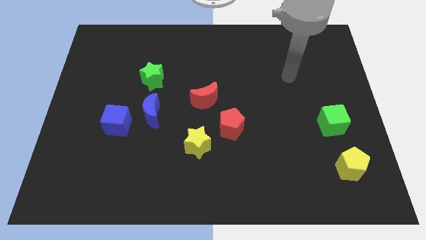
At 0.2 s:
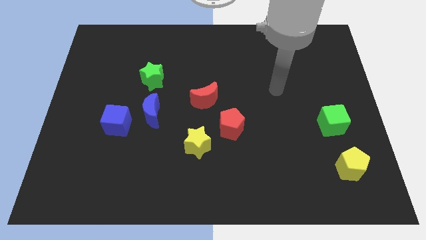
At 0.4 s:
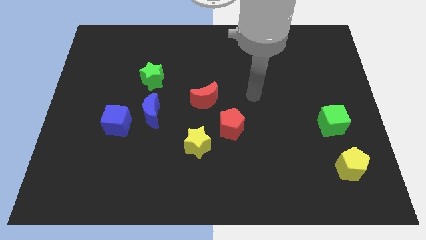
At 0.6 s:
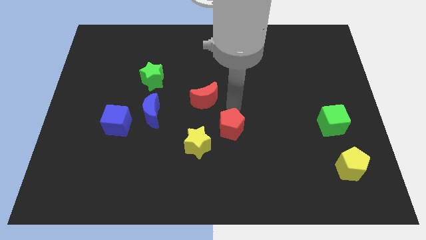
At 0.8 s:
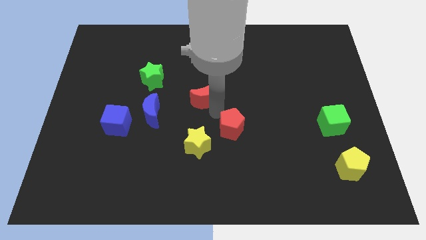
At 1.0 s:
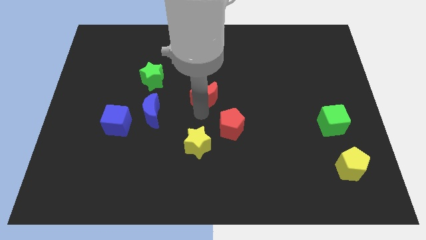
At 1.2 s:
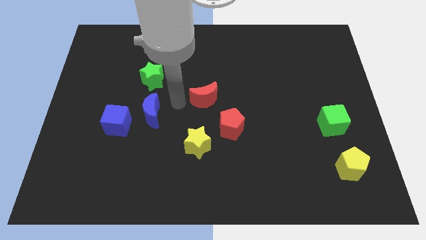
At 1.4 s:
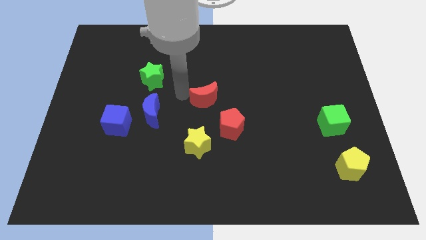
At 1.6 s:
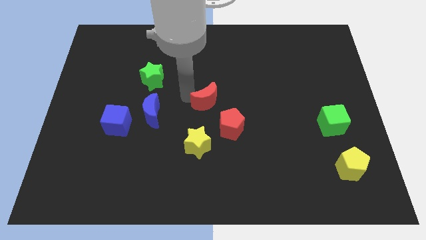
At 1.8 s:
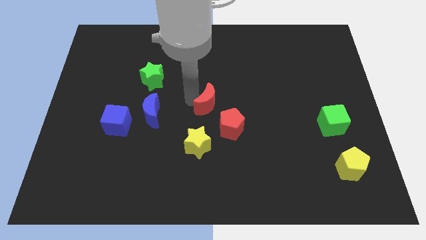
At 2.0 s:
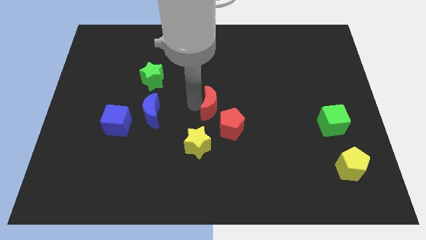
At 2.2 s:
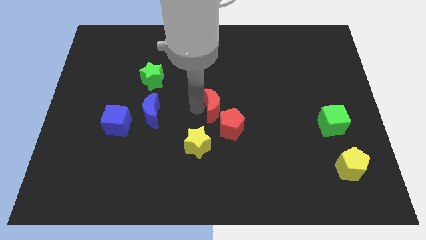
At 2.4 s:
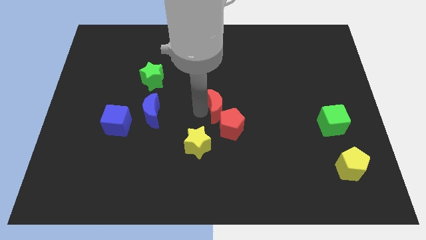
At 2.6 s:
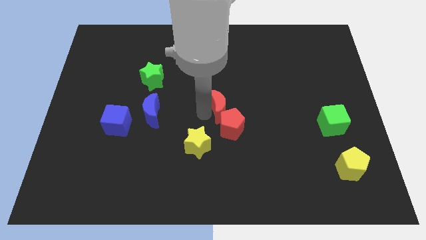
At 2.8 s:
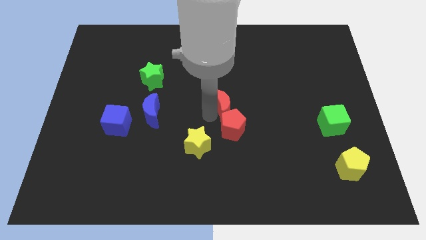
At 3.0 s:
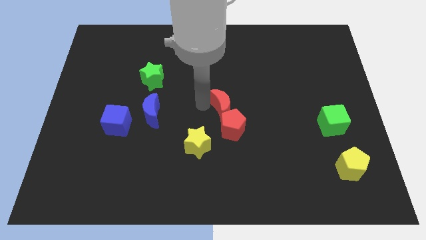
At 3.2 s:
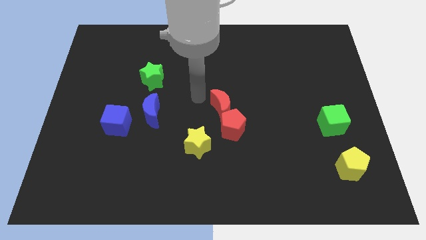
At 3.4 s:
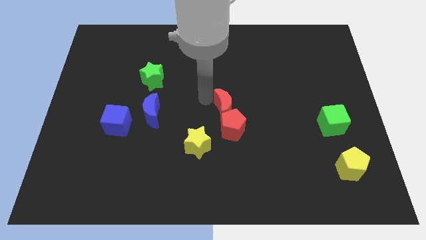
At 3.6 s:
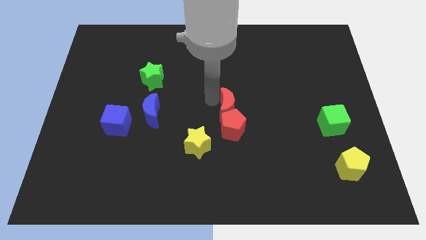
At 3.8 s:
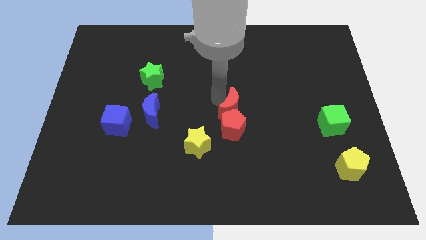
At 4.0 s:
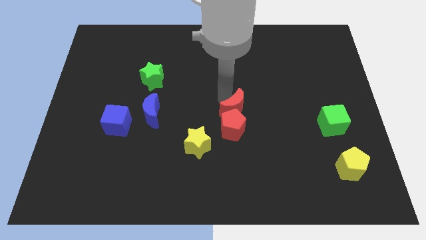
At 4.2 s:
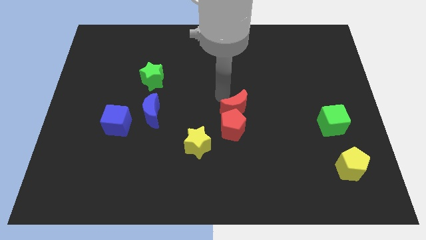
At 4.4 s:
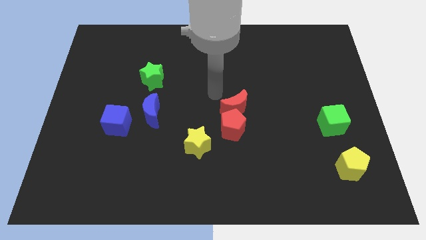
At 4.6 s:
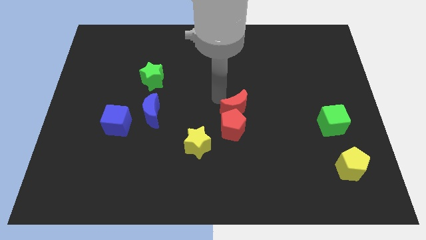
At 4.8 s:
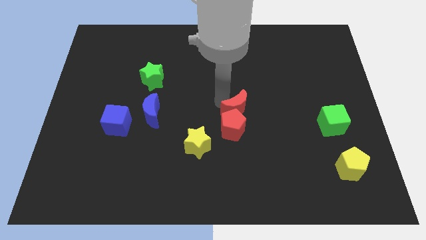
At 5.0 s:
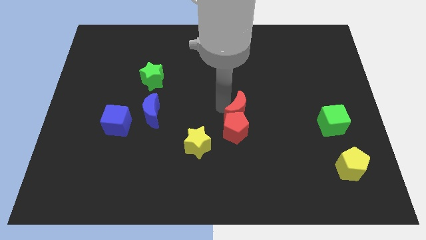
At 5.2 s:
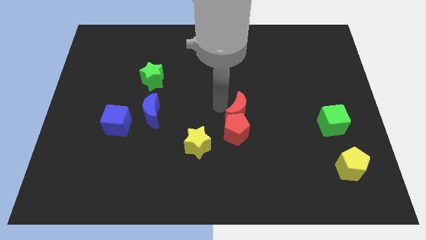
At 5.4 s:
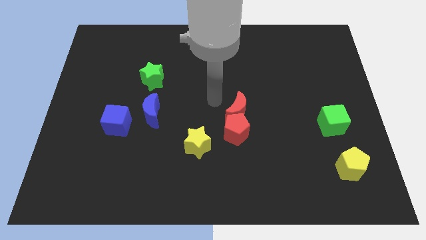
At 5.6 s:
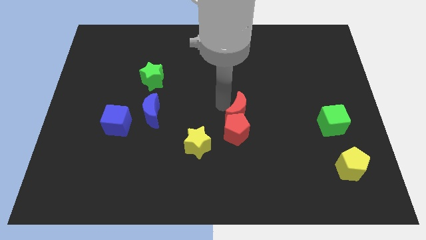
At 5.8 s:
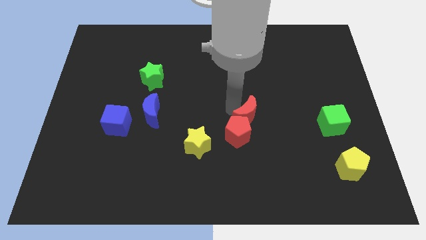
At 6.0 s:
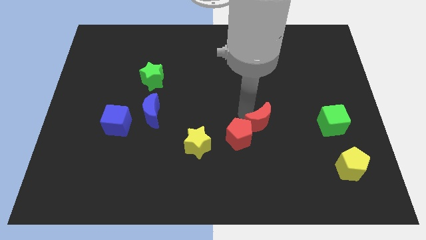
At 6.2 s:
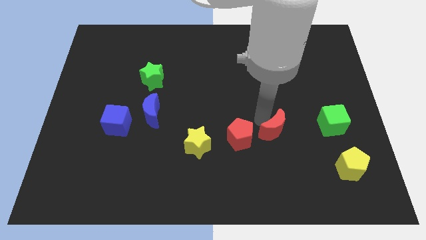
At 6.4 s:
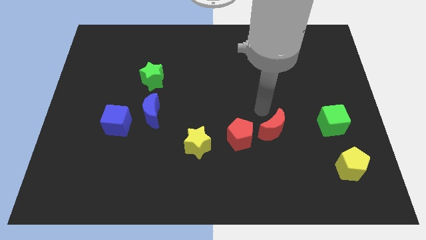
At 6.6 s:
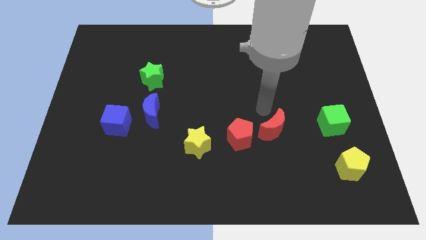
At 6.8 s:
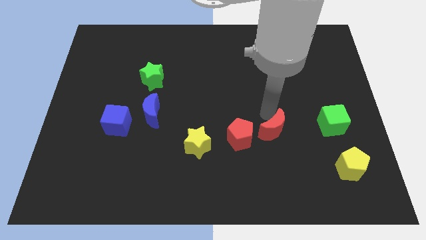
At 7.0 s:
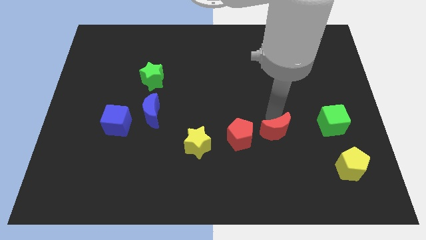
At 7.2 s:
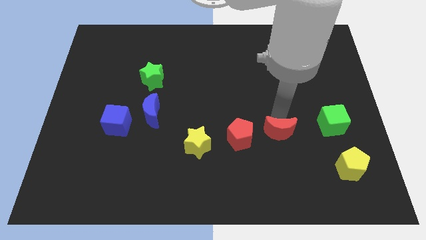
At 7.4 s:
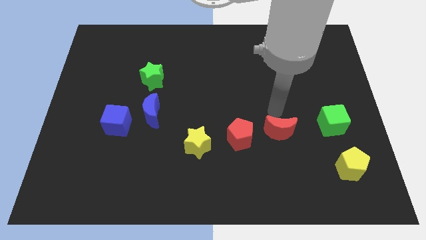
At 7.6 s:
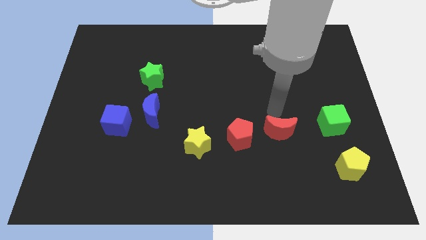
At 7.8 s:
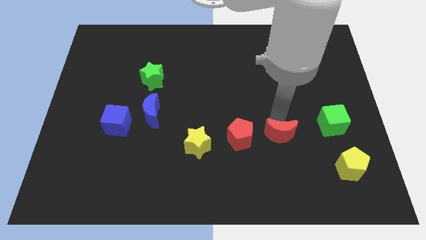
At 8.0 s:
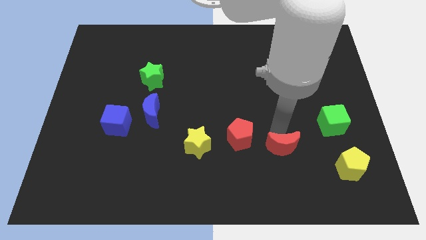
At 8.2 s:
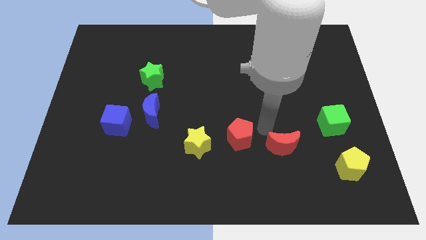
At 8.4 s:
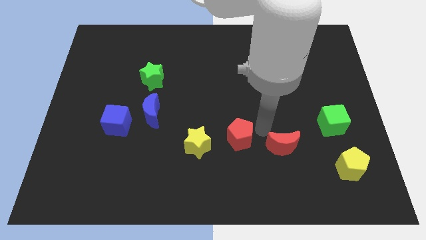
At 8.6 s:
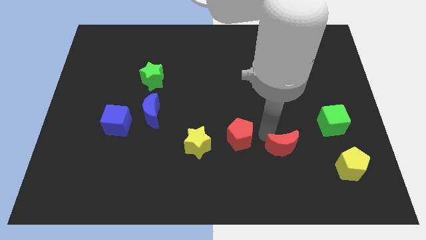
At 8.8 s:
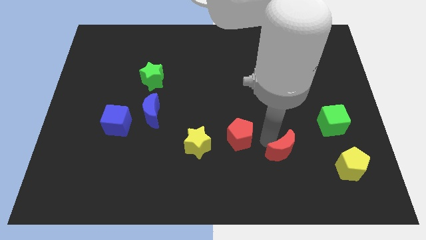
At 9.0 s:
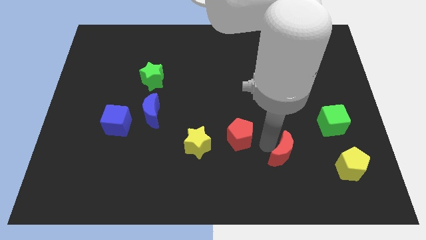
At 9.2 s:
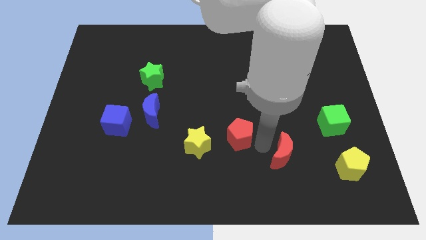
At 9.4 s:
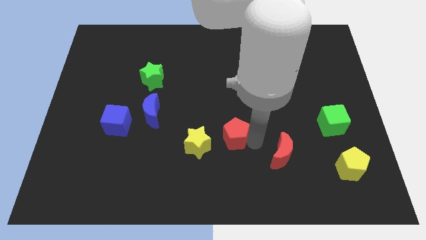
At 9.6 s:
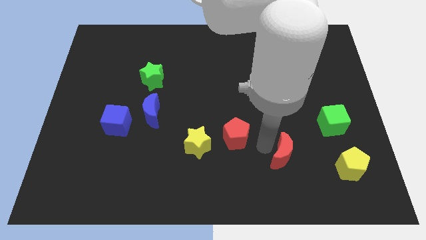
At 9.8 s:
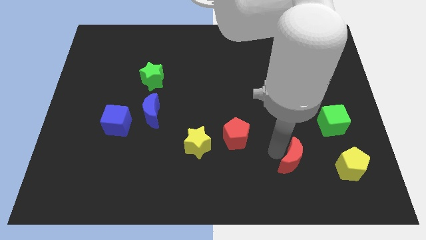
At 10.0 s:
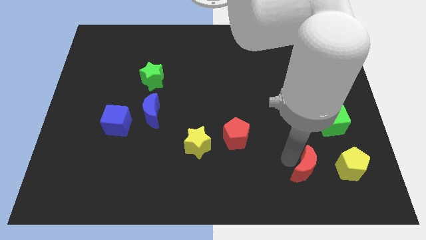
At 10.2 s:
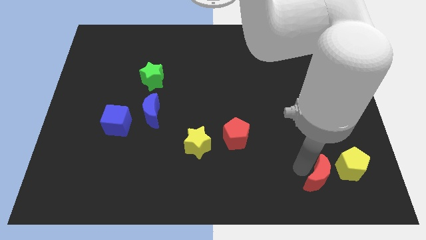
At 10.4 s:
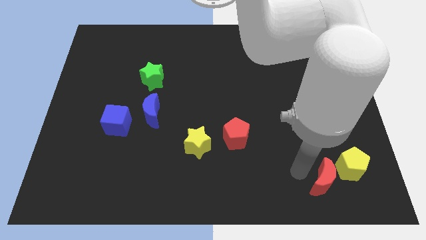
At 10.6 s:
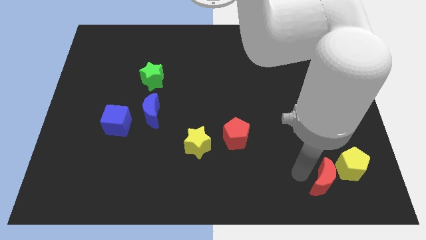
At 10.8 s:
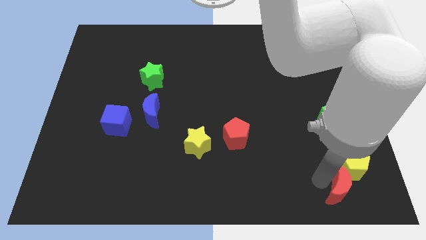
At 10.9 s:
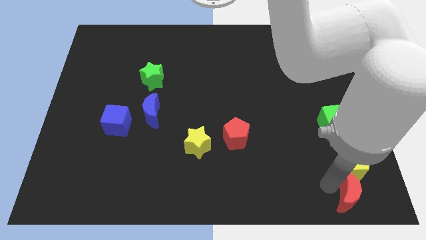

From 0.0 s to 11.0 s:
push the red moon to the bottom right corner

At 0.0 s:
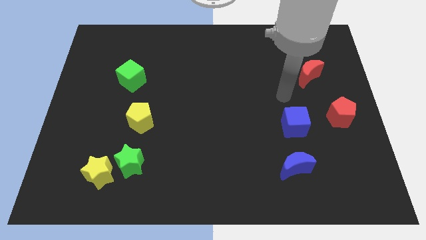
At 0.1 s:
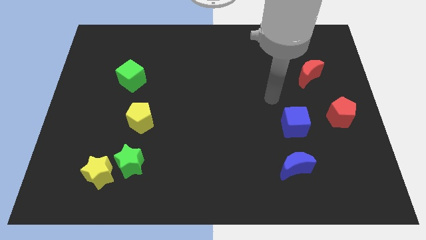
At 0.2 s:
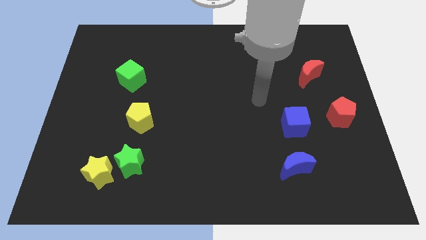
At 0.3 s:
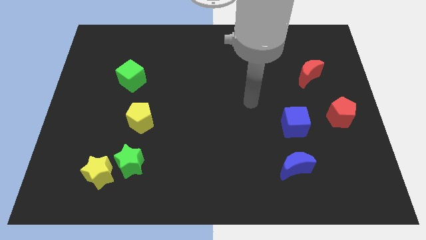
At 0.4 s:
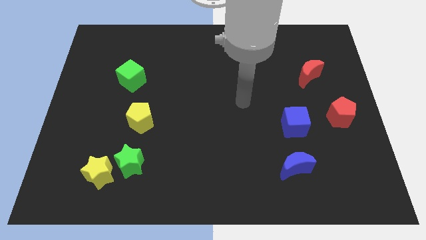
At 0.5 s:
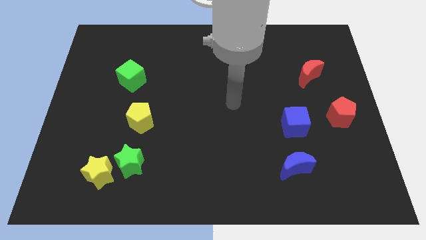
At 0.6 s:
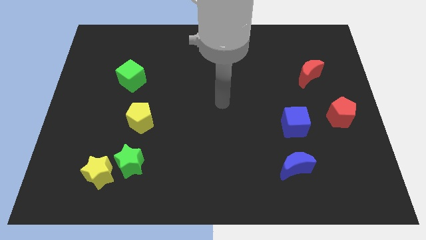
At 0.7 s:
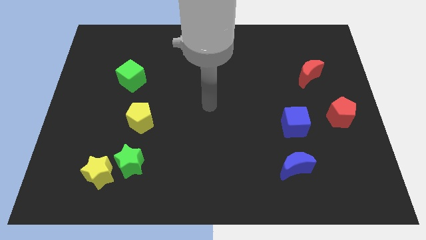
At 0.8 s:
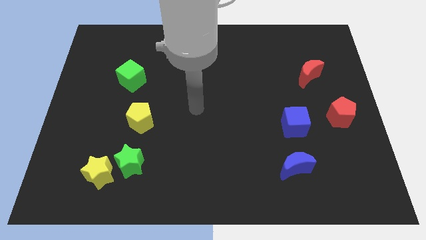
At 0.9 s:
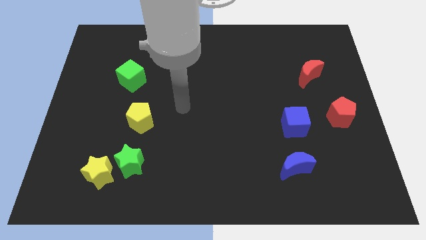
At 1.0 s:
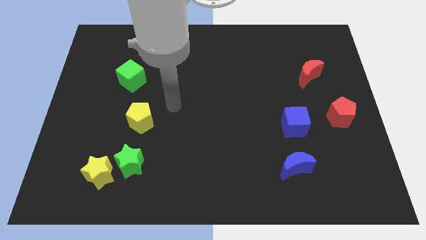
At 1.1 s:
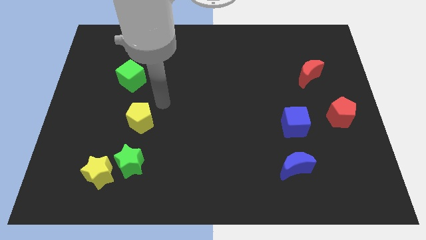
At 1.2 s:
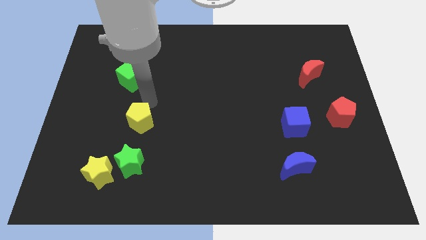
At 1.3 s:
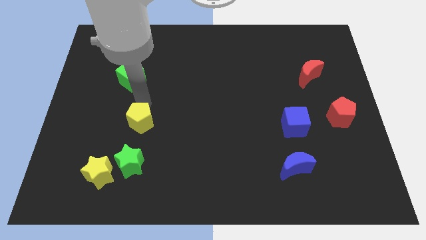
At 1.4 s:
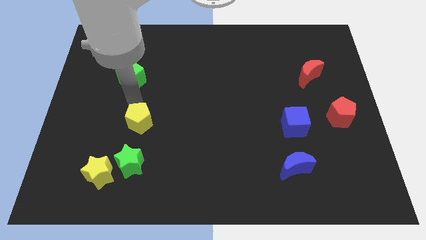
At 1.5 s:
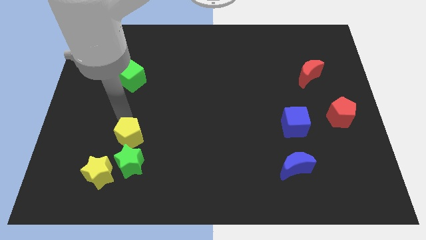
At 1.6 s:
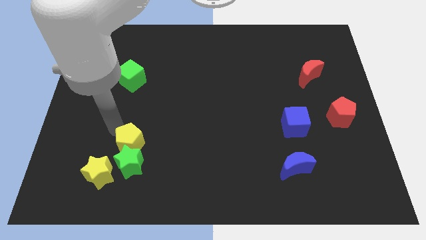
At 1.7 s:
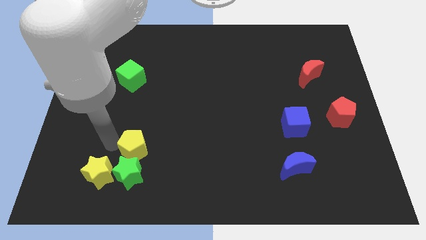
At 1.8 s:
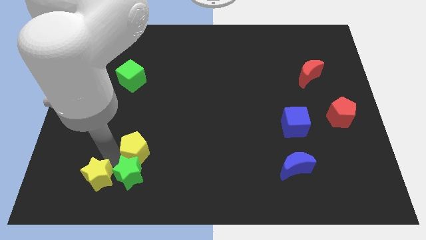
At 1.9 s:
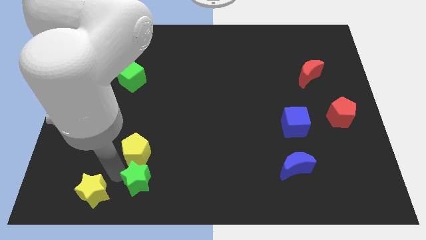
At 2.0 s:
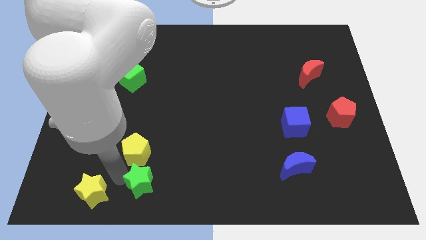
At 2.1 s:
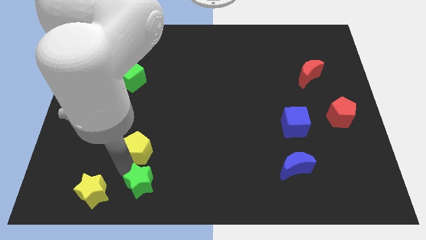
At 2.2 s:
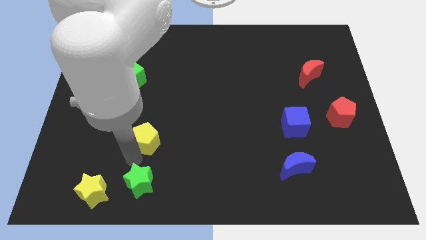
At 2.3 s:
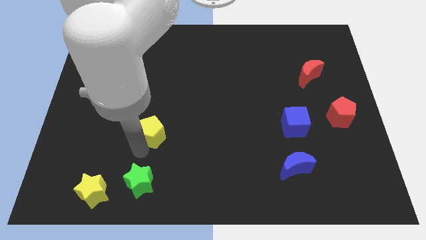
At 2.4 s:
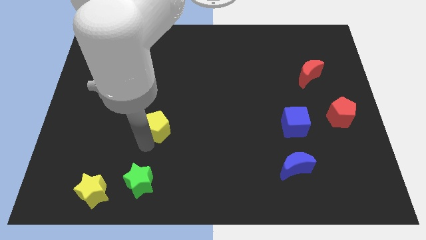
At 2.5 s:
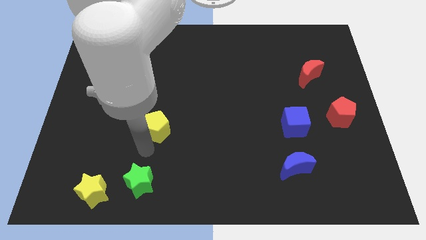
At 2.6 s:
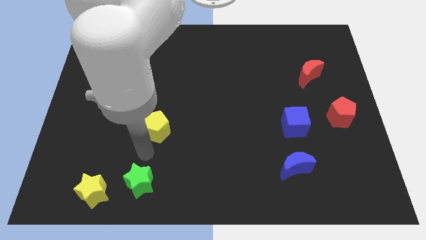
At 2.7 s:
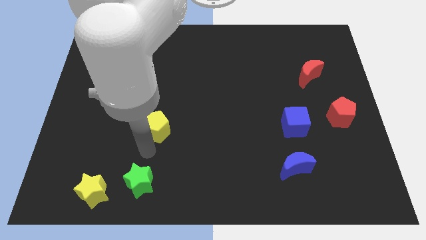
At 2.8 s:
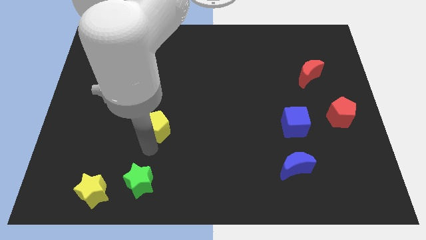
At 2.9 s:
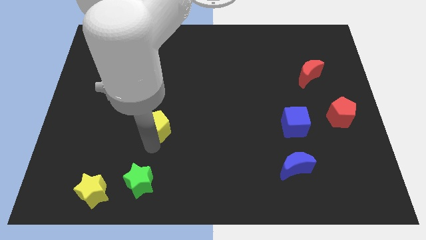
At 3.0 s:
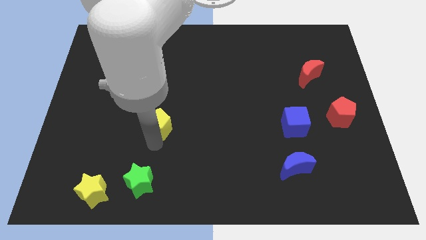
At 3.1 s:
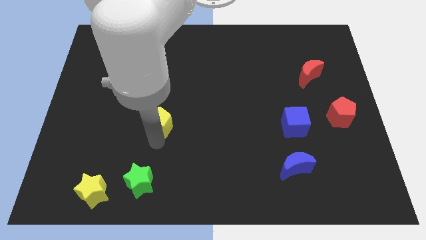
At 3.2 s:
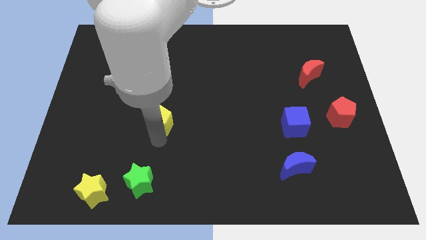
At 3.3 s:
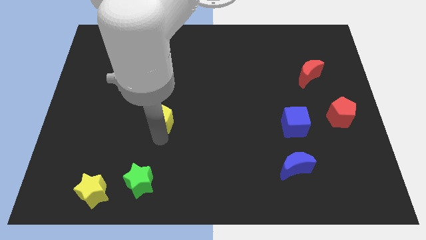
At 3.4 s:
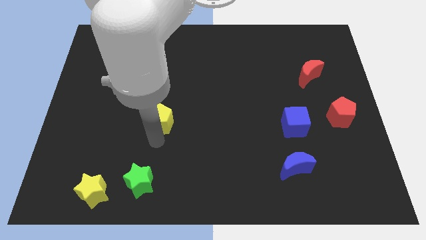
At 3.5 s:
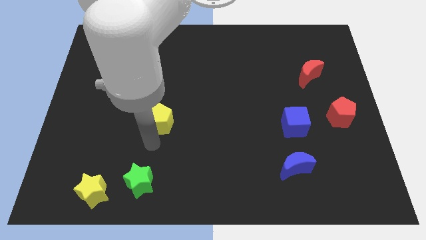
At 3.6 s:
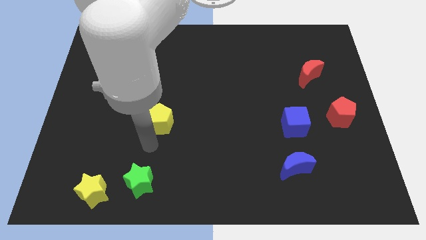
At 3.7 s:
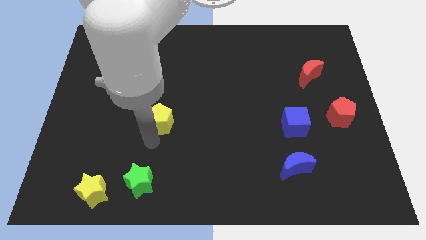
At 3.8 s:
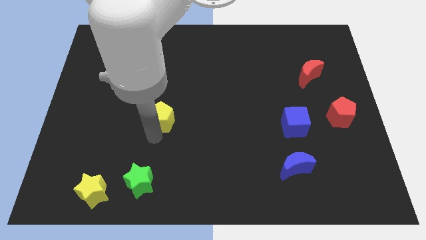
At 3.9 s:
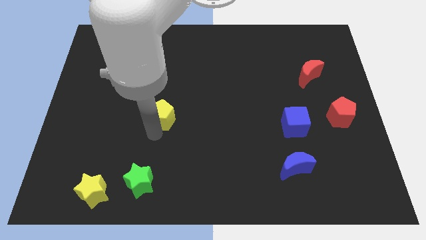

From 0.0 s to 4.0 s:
put the yellow pentagon to the center of the board
